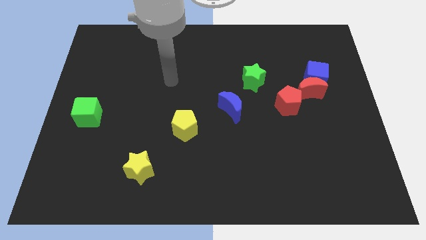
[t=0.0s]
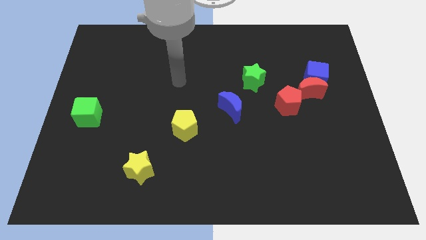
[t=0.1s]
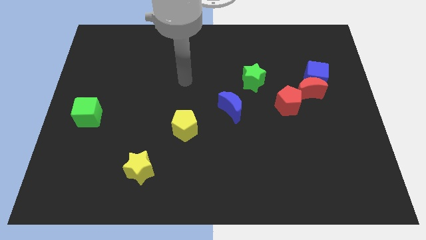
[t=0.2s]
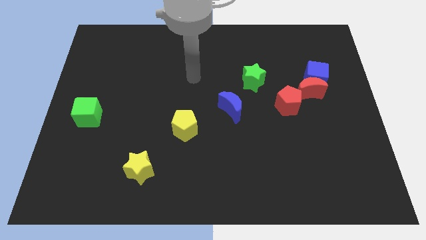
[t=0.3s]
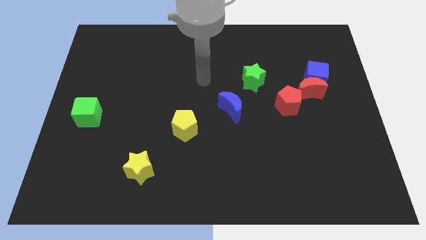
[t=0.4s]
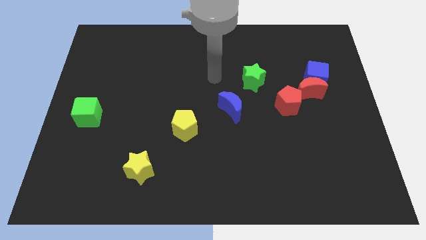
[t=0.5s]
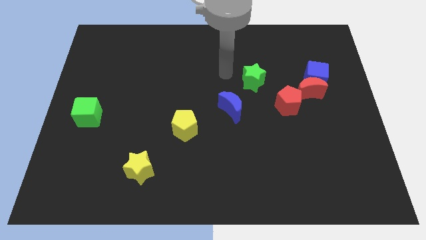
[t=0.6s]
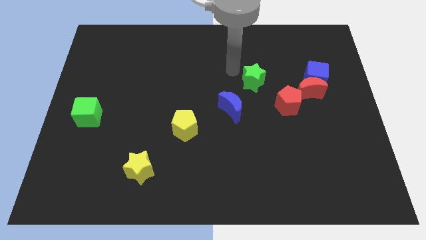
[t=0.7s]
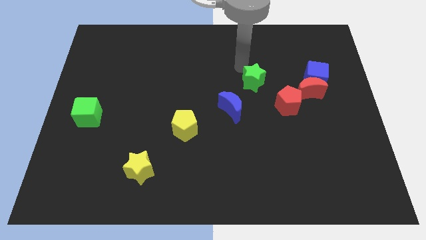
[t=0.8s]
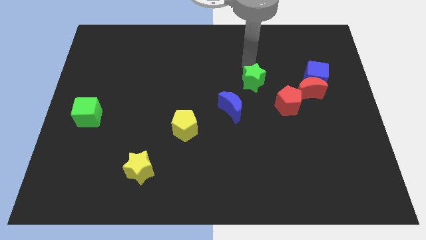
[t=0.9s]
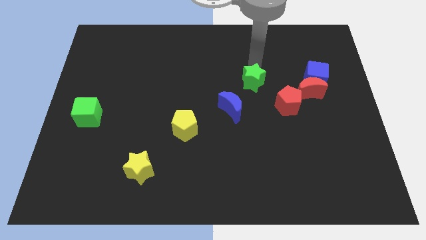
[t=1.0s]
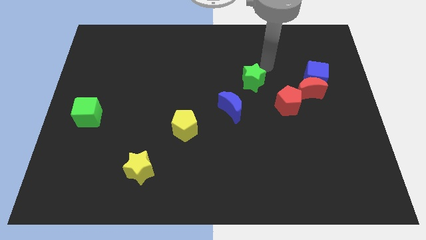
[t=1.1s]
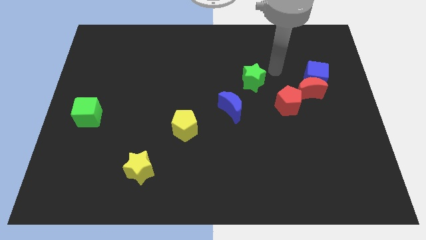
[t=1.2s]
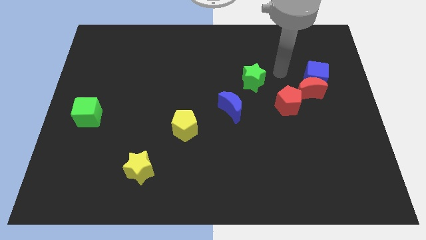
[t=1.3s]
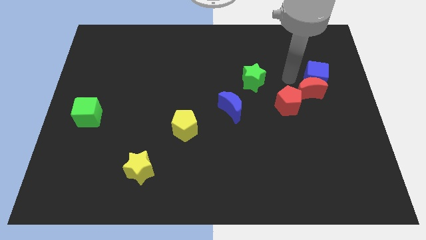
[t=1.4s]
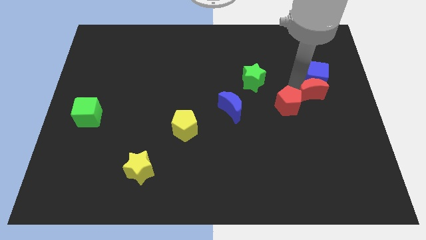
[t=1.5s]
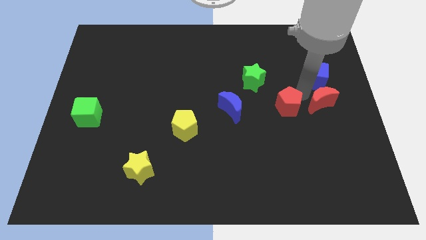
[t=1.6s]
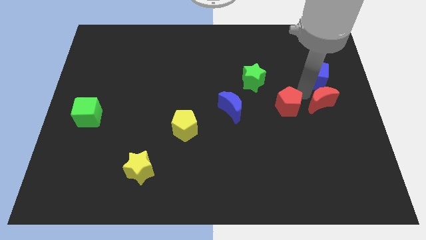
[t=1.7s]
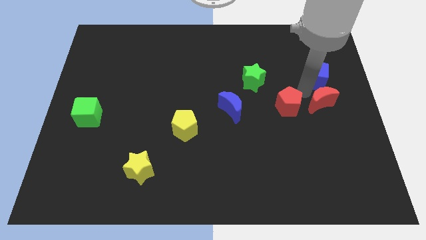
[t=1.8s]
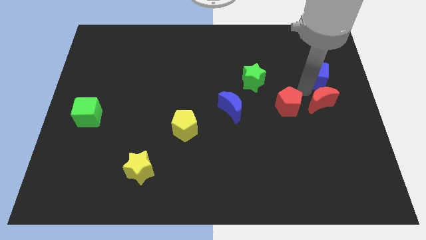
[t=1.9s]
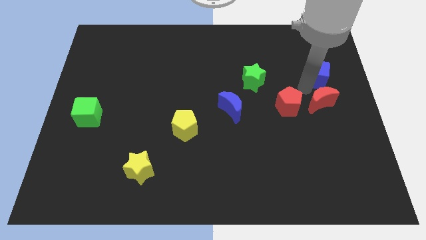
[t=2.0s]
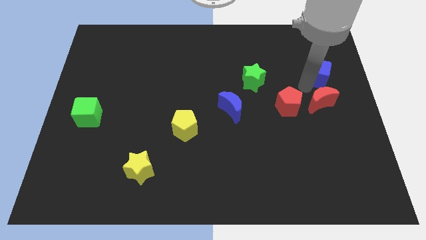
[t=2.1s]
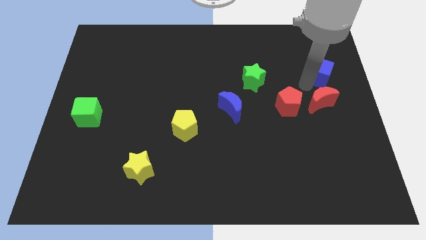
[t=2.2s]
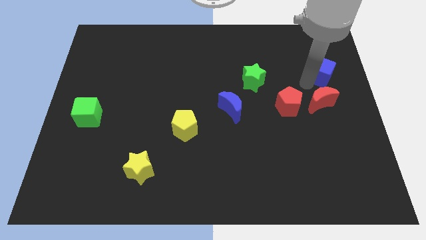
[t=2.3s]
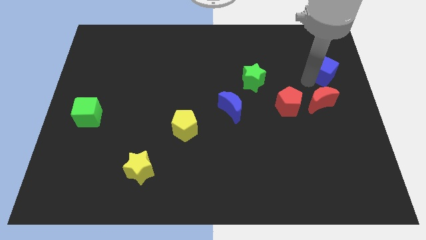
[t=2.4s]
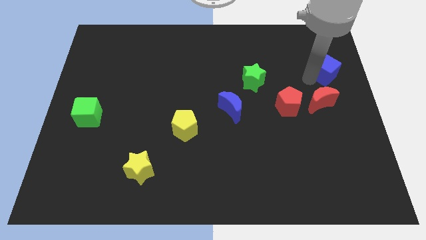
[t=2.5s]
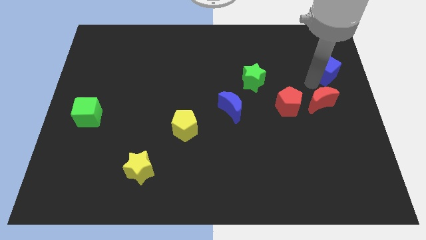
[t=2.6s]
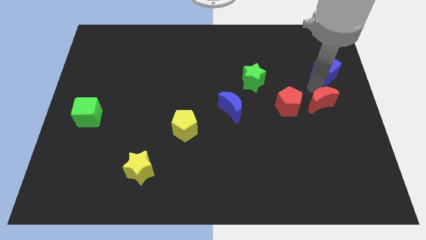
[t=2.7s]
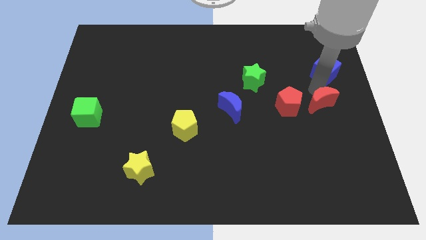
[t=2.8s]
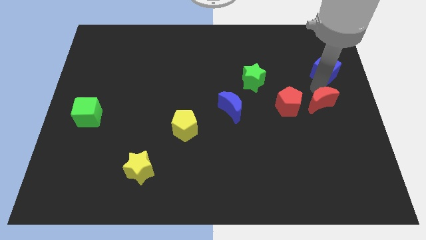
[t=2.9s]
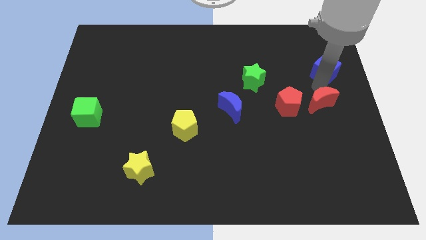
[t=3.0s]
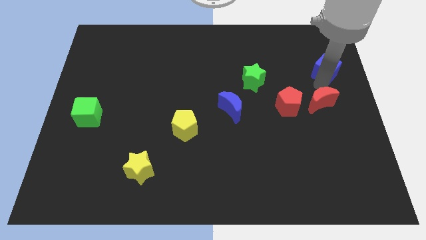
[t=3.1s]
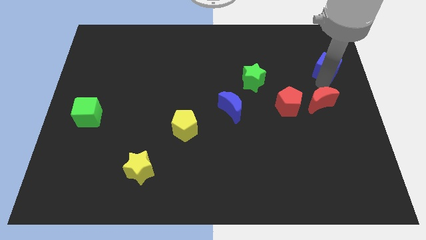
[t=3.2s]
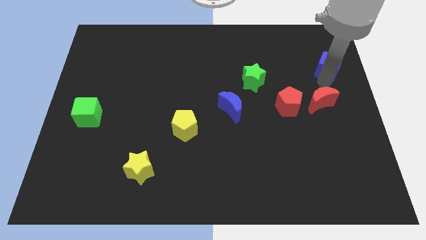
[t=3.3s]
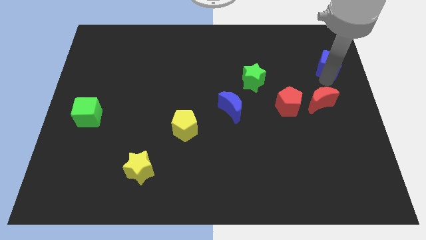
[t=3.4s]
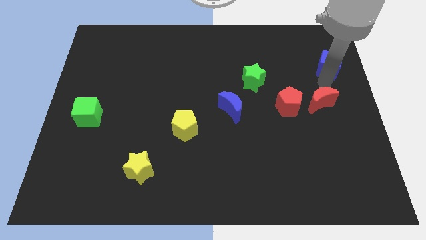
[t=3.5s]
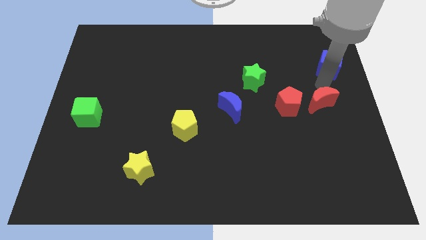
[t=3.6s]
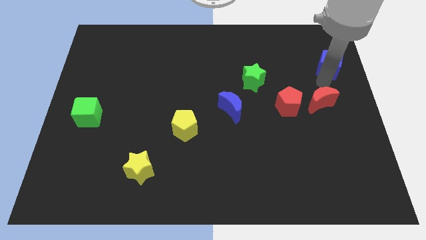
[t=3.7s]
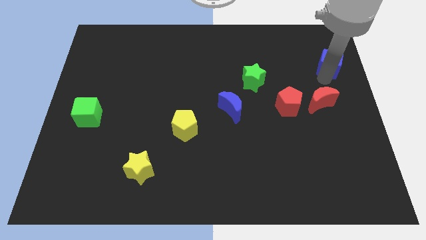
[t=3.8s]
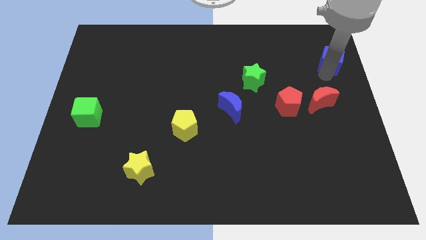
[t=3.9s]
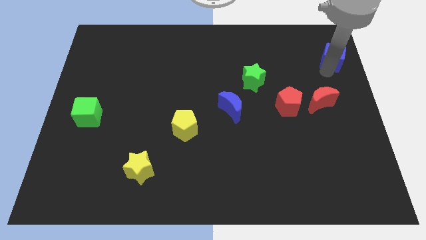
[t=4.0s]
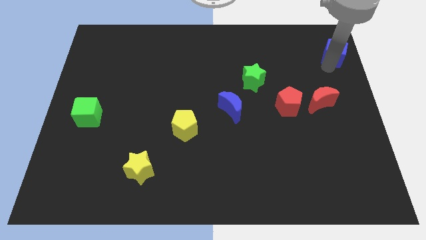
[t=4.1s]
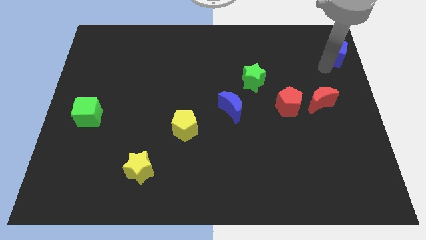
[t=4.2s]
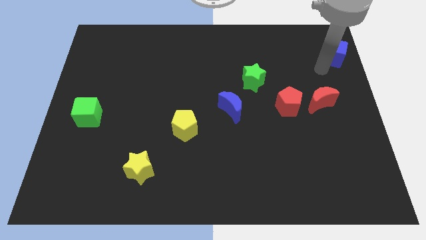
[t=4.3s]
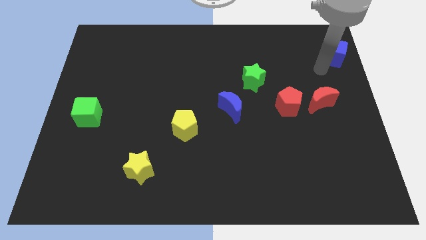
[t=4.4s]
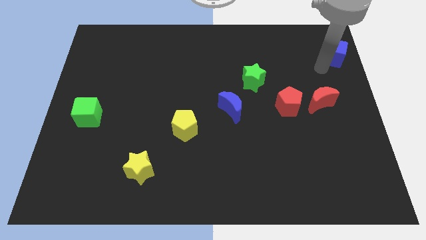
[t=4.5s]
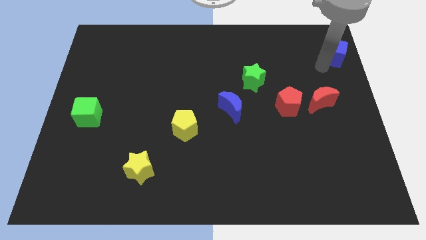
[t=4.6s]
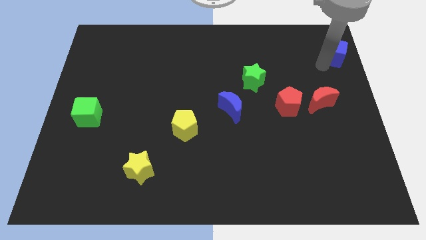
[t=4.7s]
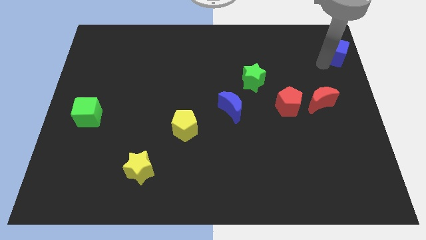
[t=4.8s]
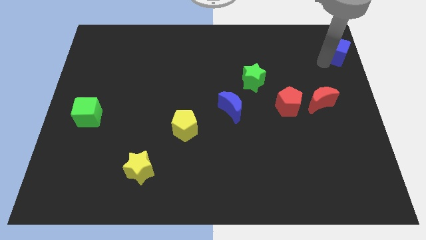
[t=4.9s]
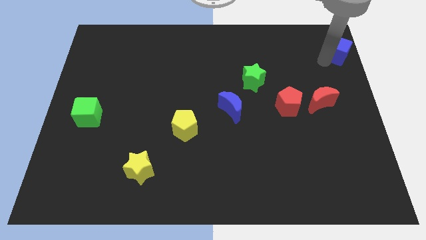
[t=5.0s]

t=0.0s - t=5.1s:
move the blue cube to the top right of the board
